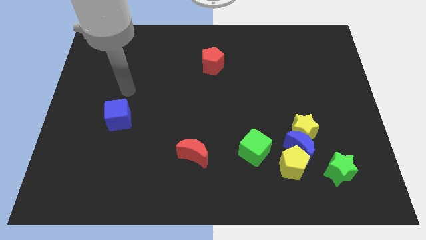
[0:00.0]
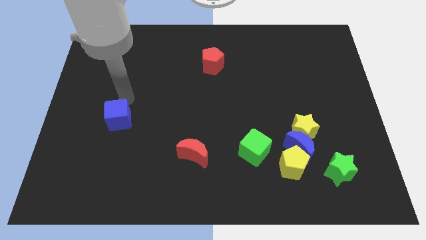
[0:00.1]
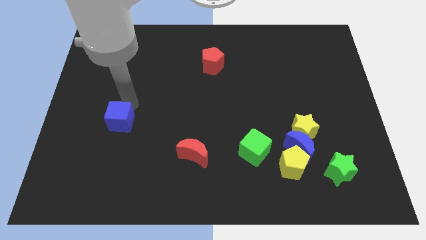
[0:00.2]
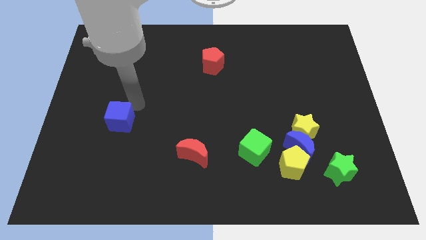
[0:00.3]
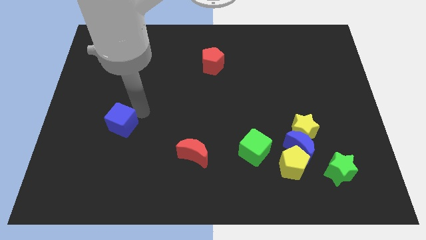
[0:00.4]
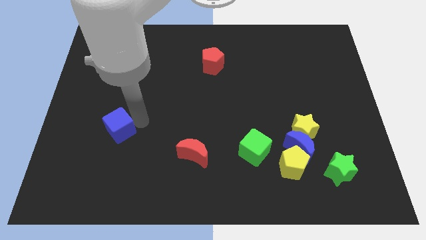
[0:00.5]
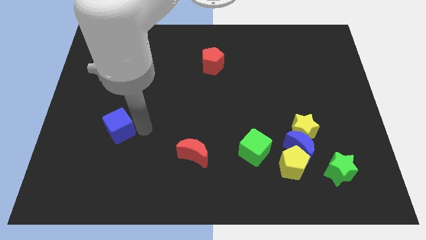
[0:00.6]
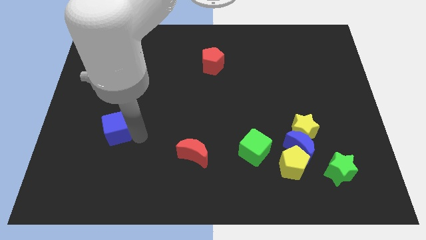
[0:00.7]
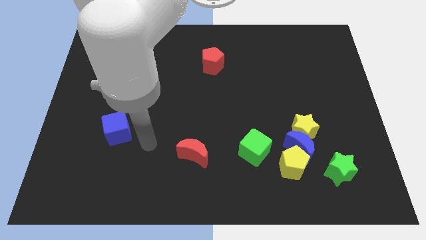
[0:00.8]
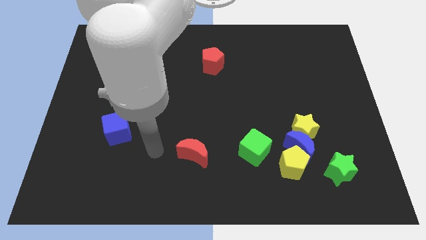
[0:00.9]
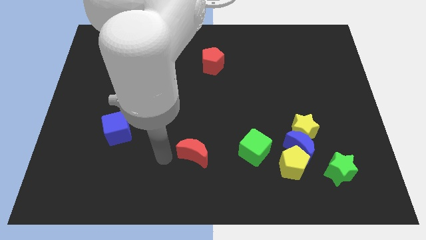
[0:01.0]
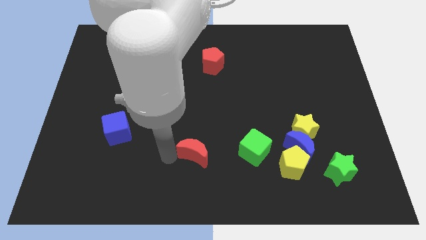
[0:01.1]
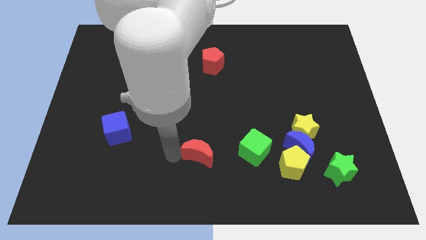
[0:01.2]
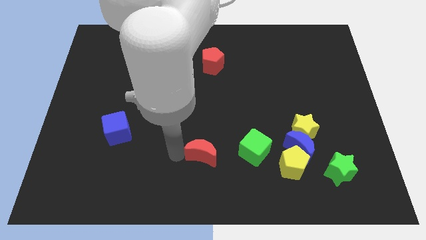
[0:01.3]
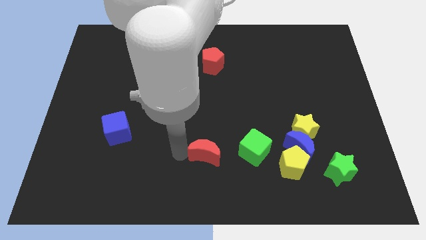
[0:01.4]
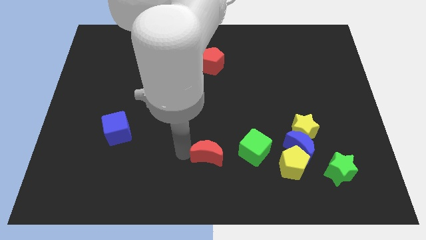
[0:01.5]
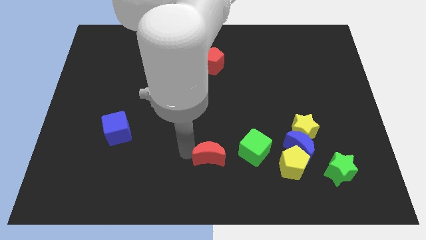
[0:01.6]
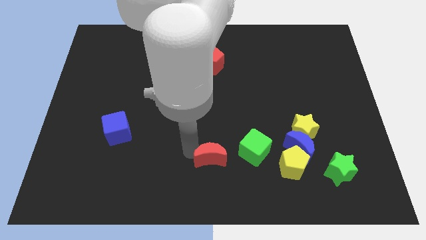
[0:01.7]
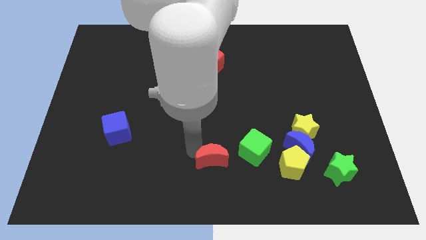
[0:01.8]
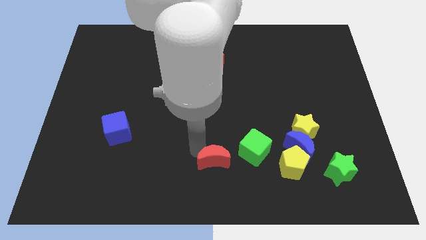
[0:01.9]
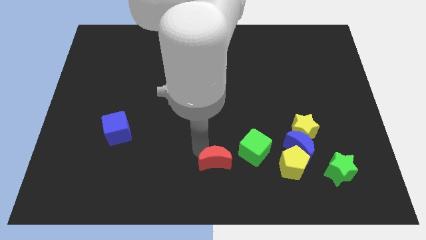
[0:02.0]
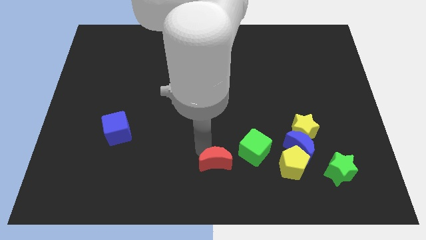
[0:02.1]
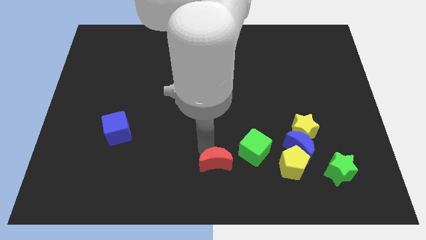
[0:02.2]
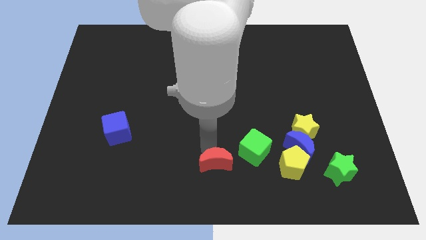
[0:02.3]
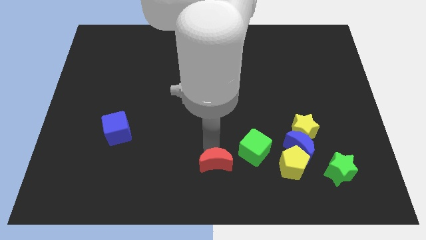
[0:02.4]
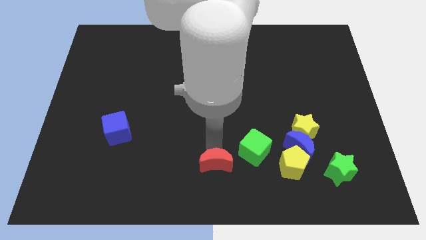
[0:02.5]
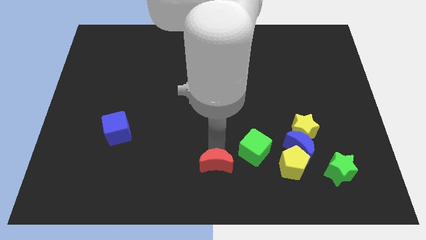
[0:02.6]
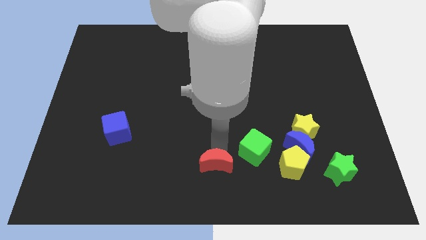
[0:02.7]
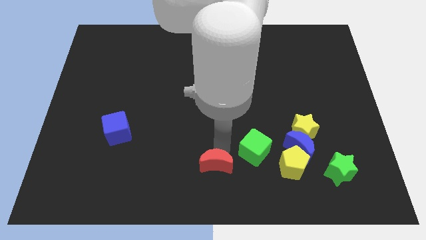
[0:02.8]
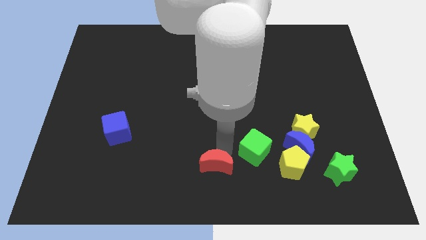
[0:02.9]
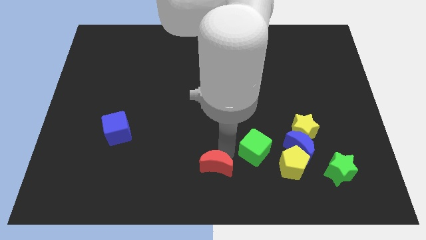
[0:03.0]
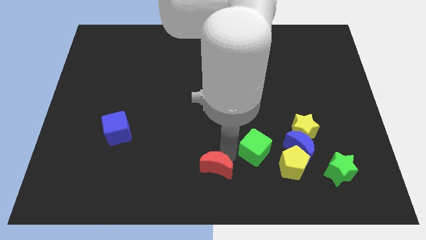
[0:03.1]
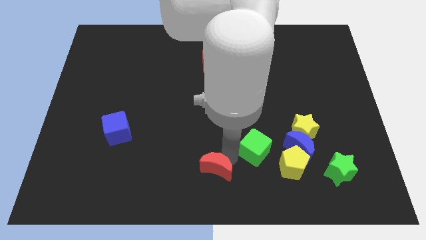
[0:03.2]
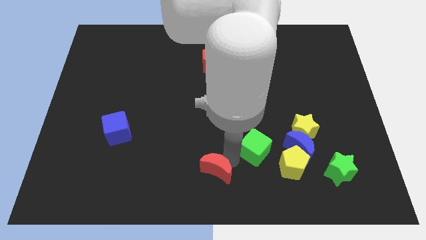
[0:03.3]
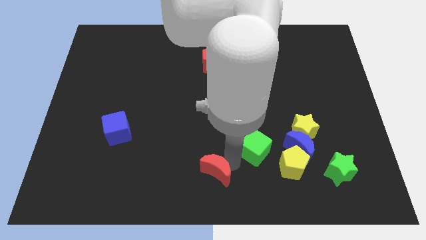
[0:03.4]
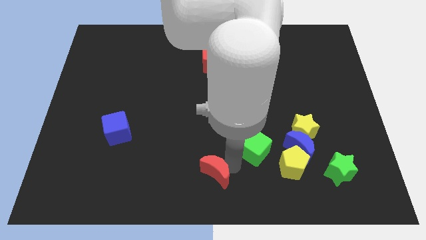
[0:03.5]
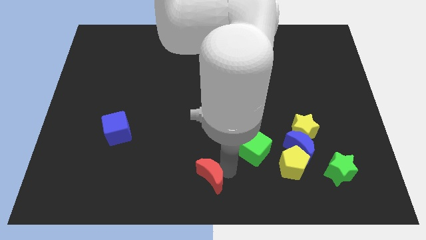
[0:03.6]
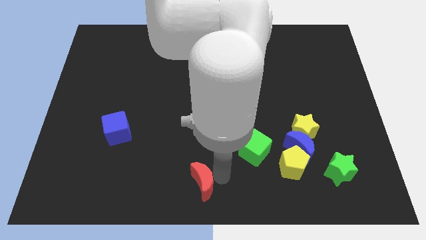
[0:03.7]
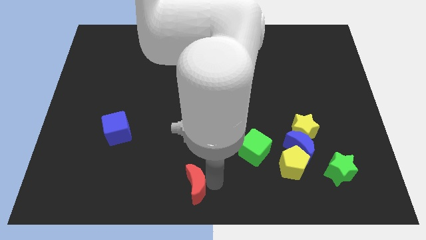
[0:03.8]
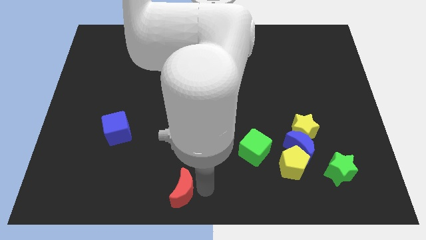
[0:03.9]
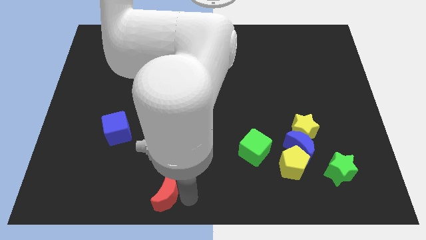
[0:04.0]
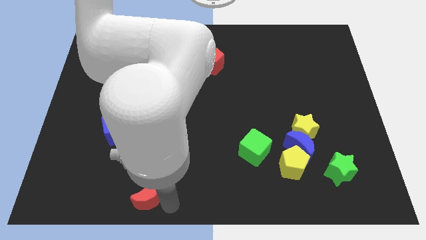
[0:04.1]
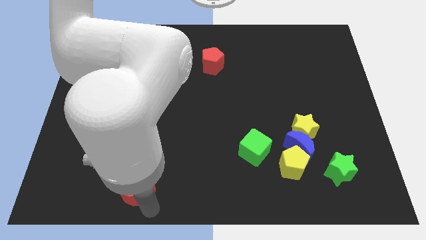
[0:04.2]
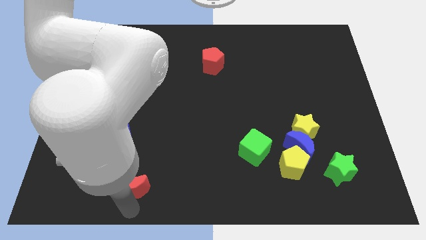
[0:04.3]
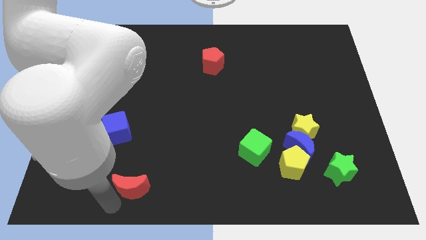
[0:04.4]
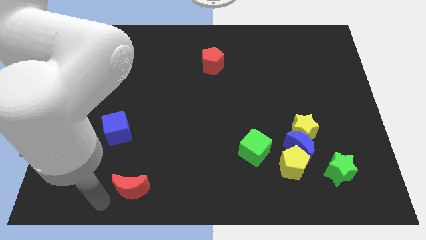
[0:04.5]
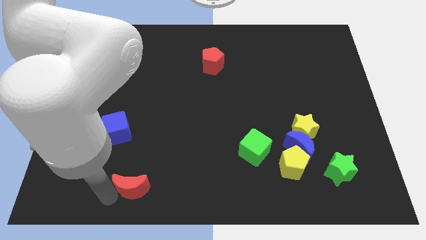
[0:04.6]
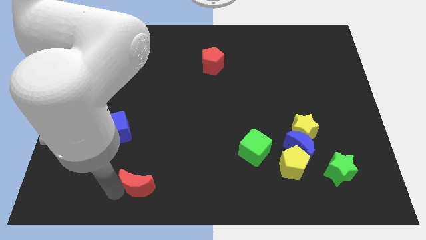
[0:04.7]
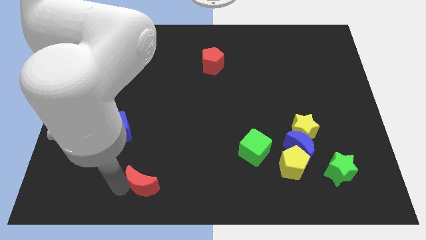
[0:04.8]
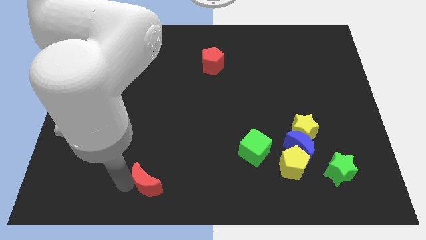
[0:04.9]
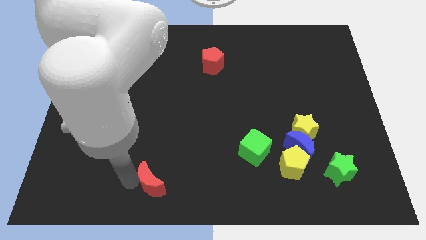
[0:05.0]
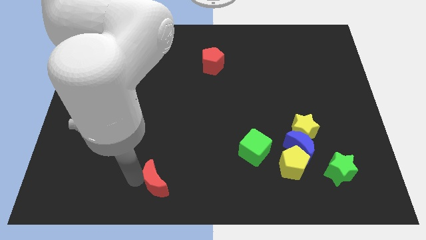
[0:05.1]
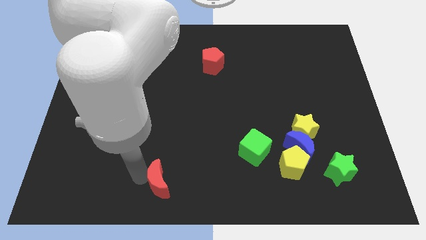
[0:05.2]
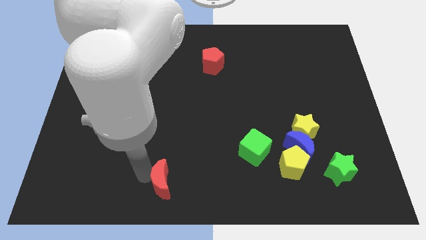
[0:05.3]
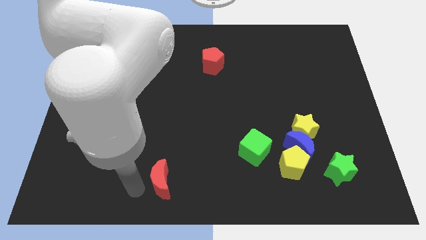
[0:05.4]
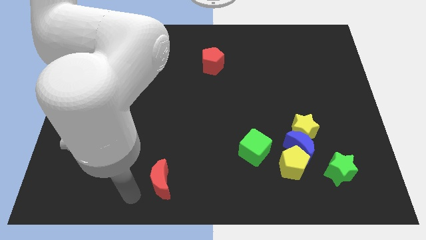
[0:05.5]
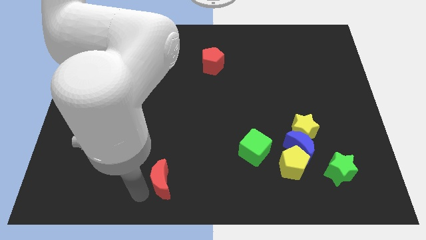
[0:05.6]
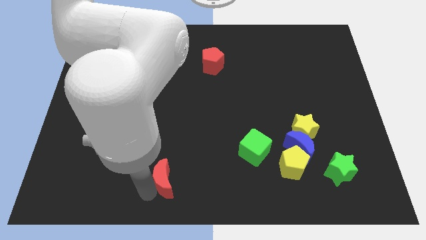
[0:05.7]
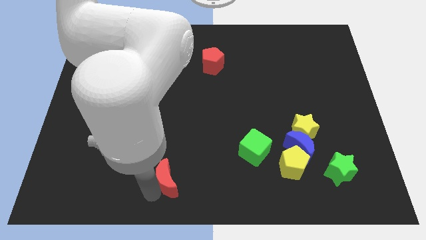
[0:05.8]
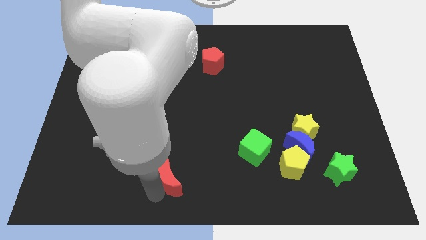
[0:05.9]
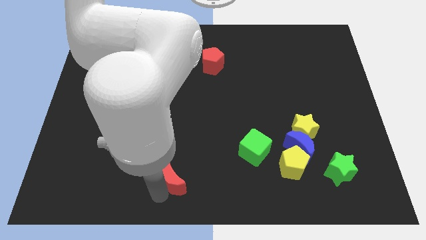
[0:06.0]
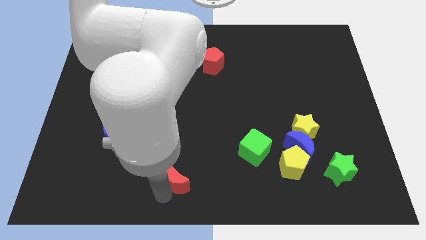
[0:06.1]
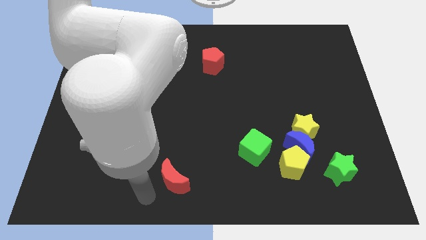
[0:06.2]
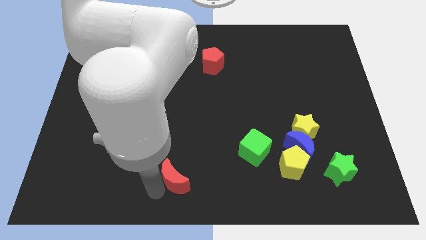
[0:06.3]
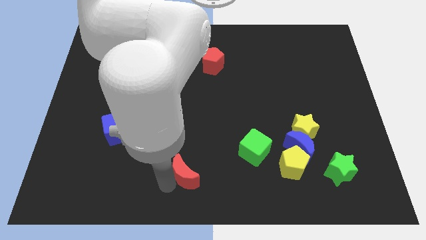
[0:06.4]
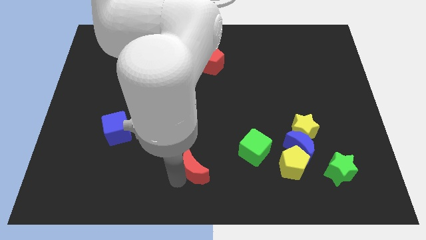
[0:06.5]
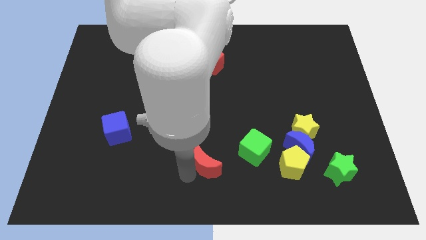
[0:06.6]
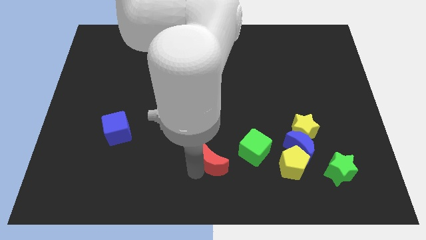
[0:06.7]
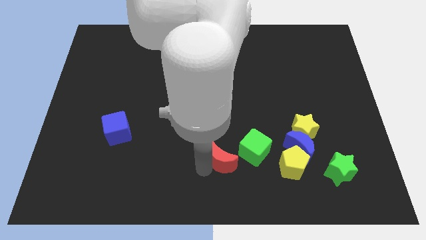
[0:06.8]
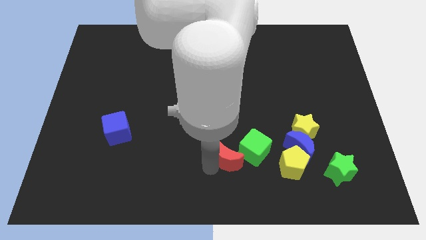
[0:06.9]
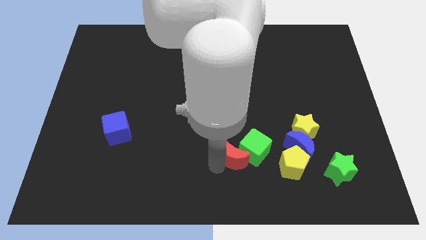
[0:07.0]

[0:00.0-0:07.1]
move the red moon to the left of the blue moon
